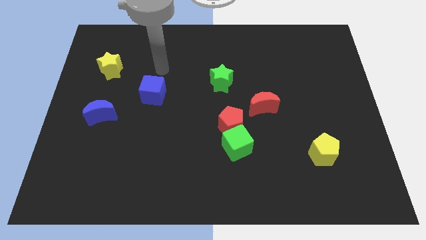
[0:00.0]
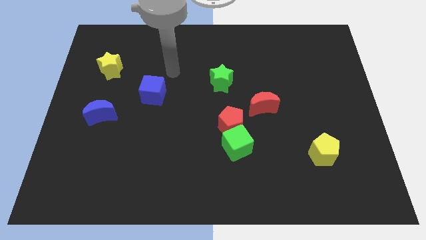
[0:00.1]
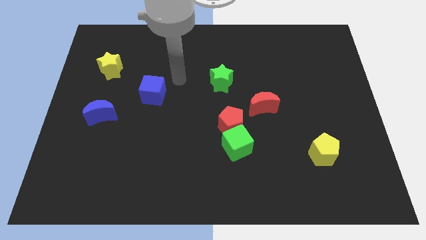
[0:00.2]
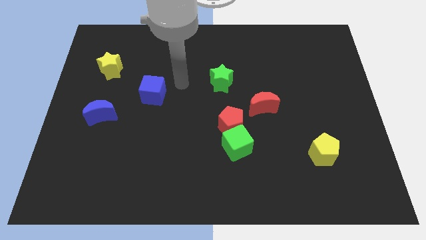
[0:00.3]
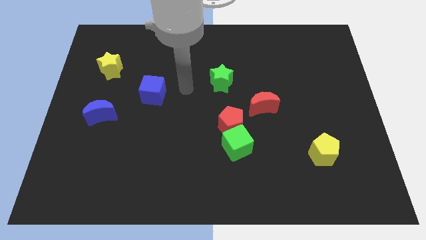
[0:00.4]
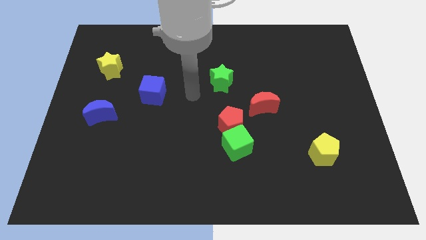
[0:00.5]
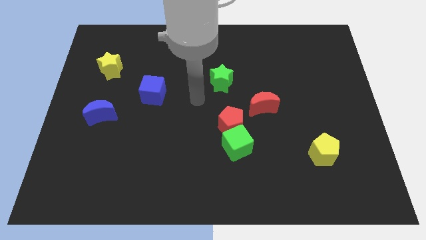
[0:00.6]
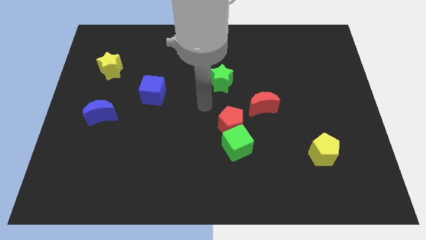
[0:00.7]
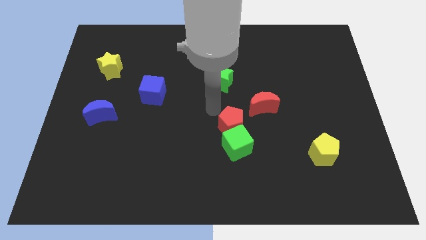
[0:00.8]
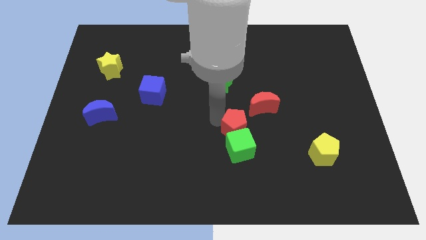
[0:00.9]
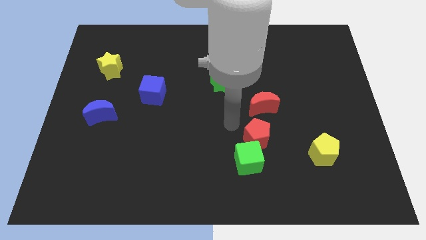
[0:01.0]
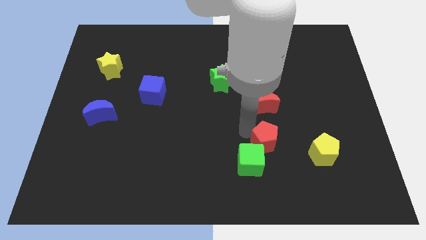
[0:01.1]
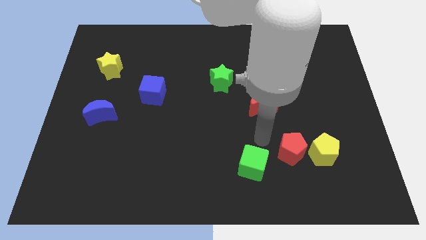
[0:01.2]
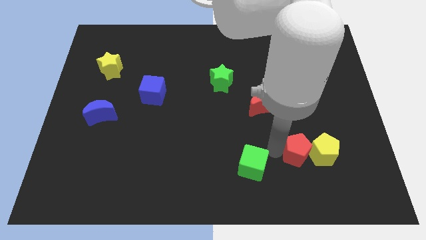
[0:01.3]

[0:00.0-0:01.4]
move the green cube away from the red pentagon

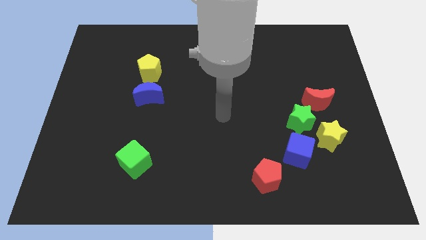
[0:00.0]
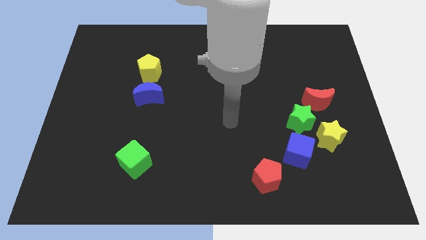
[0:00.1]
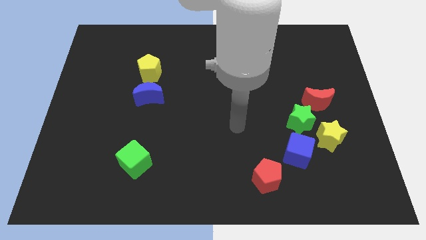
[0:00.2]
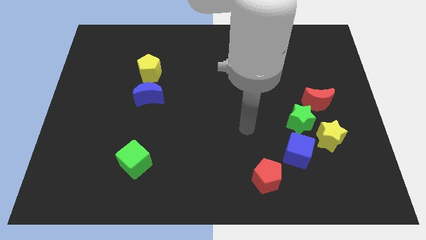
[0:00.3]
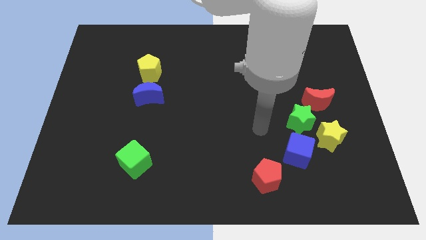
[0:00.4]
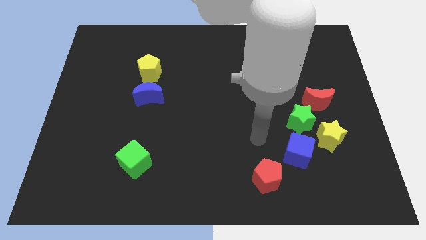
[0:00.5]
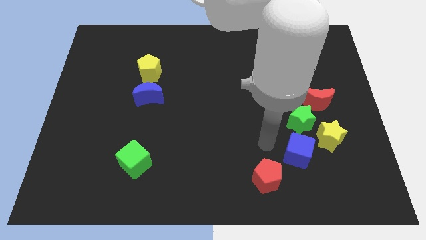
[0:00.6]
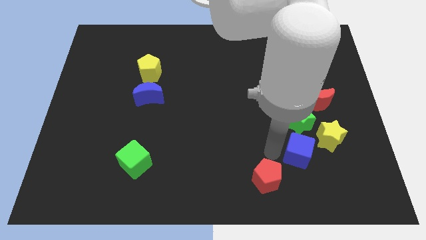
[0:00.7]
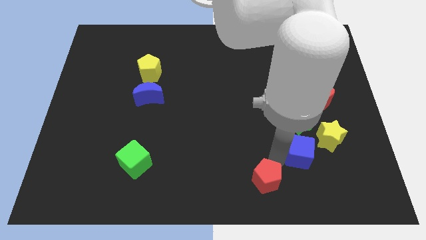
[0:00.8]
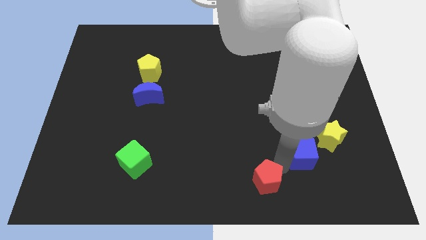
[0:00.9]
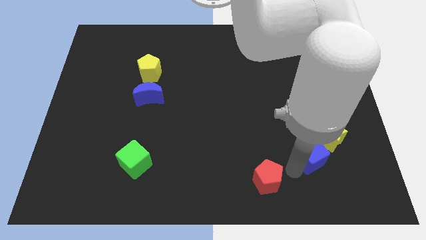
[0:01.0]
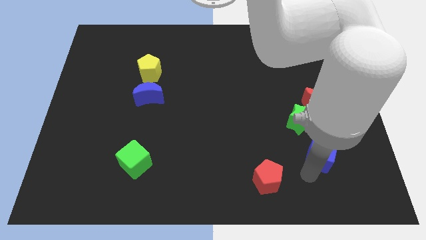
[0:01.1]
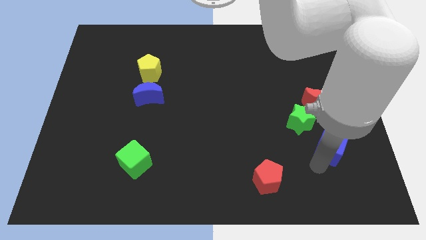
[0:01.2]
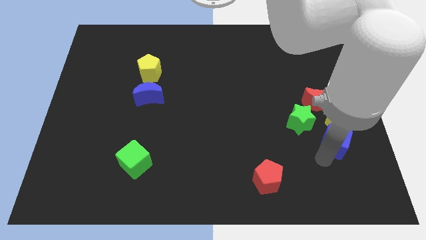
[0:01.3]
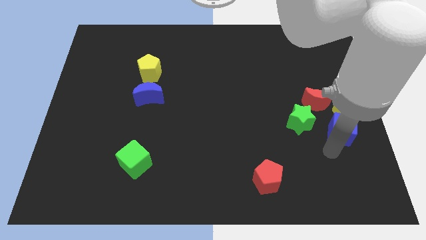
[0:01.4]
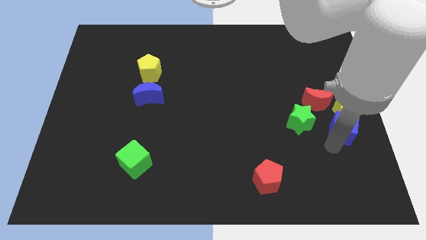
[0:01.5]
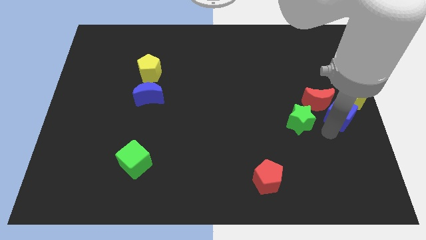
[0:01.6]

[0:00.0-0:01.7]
move the green star away from the yellow star, red moon, and blue cube

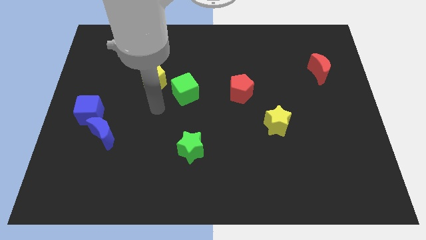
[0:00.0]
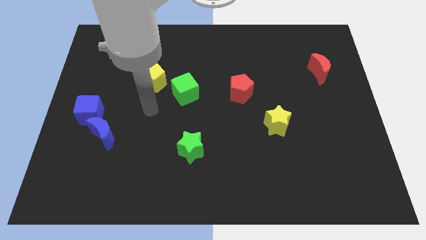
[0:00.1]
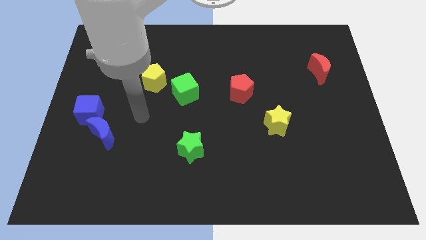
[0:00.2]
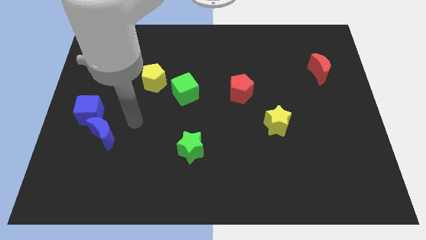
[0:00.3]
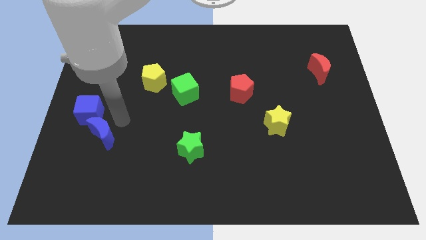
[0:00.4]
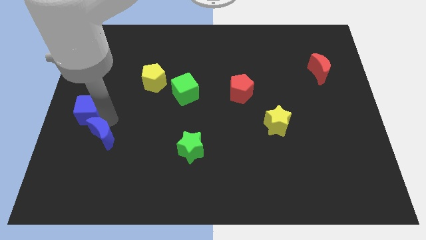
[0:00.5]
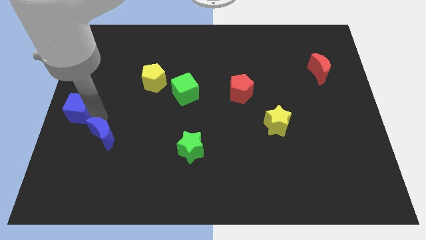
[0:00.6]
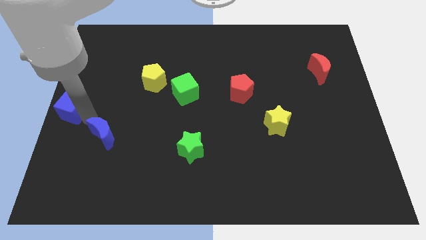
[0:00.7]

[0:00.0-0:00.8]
separate the blue moon from the blue cube

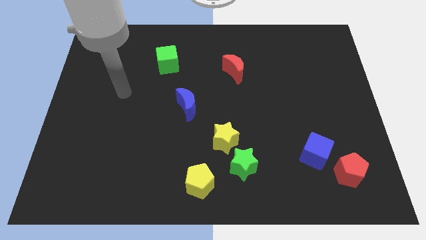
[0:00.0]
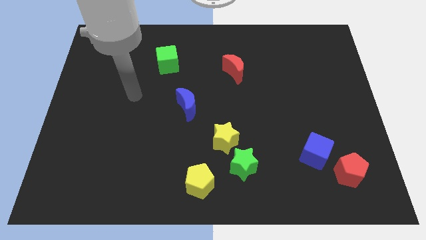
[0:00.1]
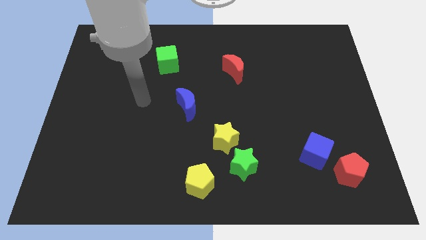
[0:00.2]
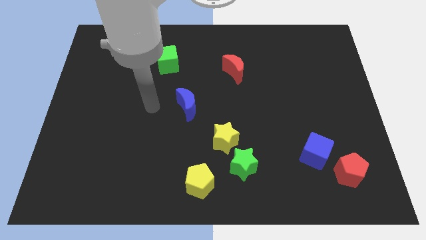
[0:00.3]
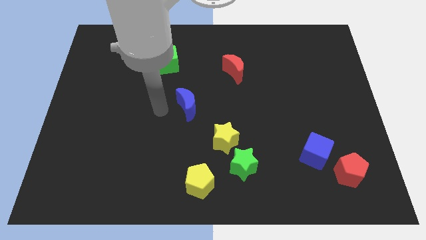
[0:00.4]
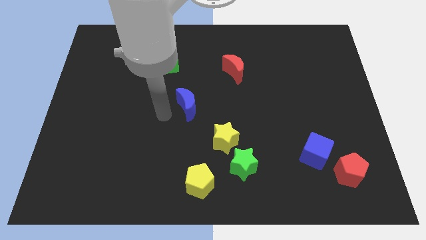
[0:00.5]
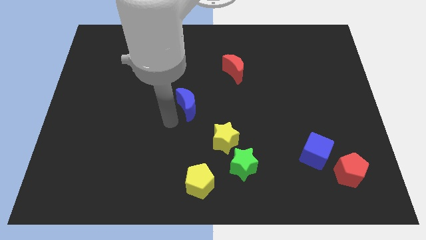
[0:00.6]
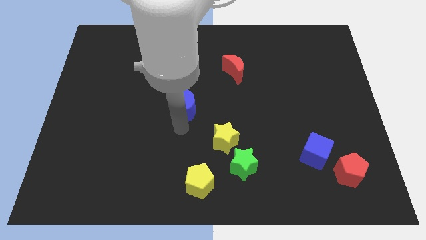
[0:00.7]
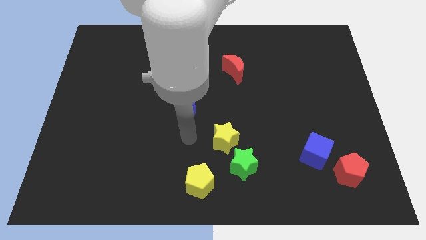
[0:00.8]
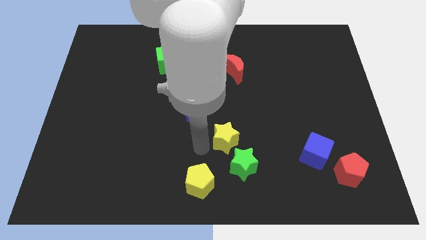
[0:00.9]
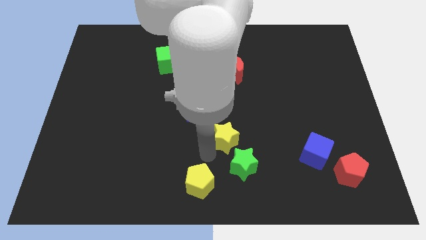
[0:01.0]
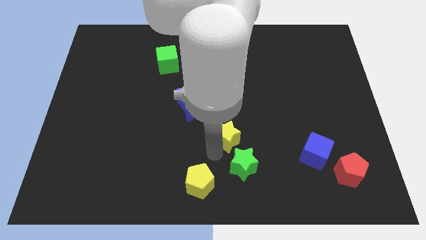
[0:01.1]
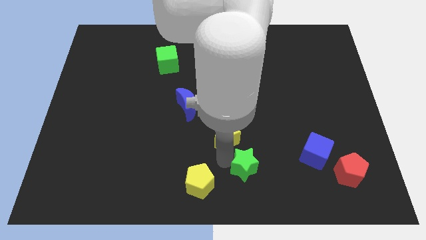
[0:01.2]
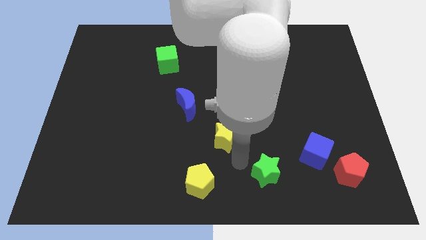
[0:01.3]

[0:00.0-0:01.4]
separate the yellow star from the green star

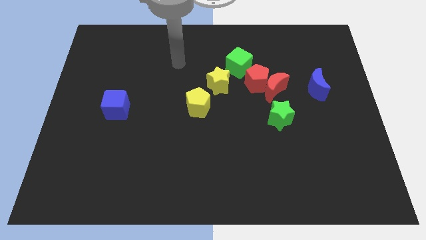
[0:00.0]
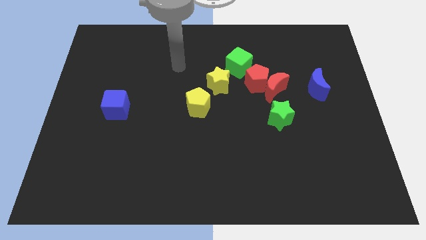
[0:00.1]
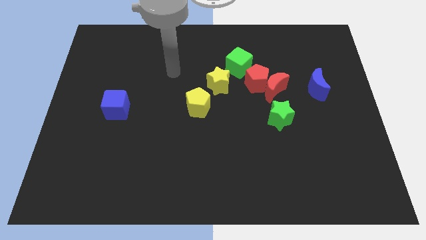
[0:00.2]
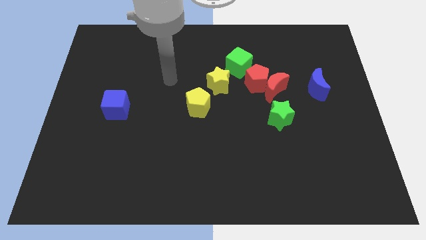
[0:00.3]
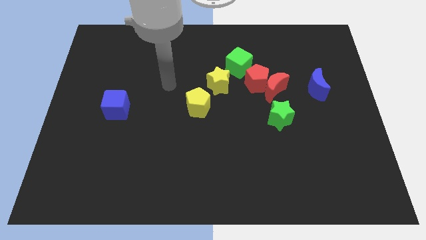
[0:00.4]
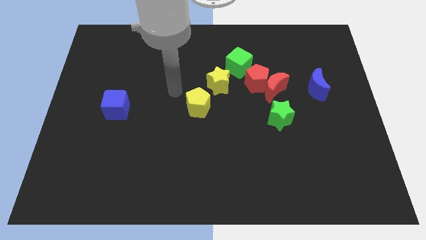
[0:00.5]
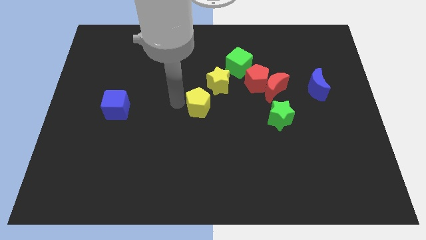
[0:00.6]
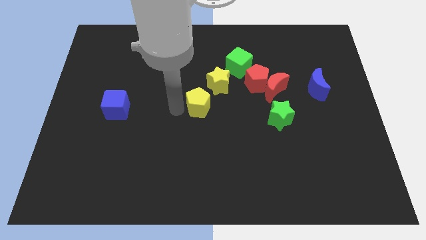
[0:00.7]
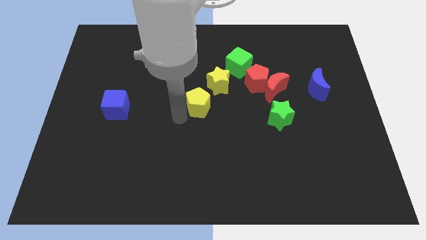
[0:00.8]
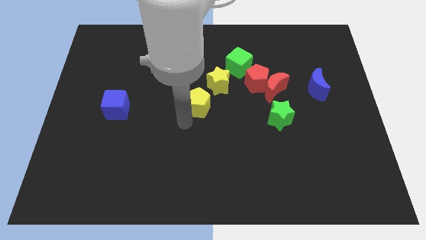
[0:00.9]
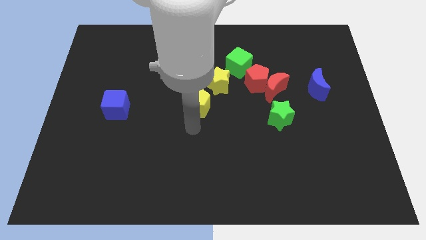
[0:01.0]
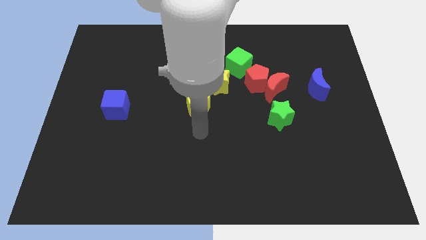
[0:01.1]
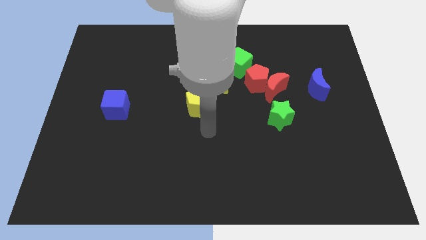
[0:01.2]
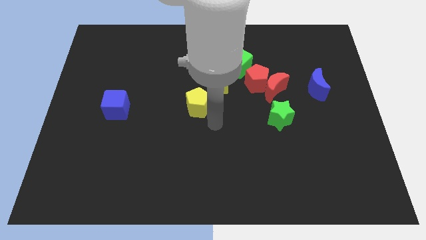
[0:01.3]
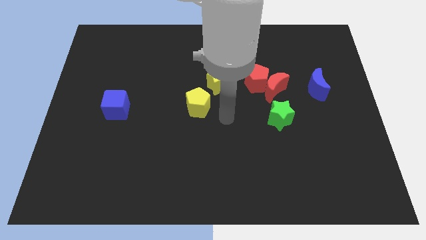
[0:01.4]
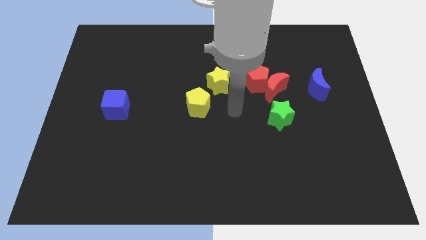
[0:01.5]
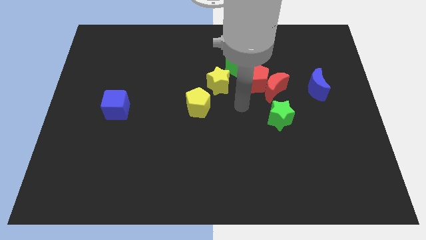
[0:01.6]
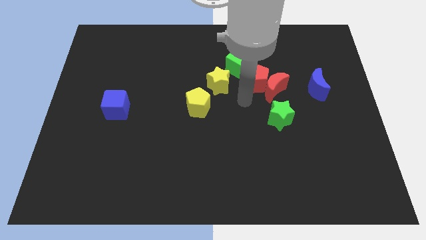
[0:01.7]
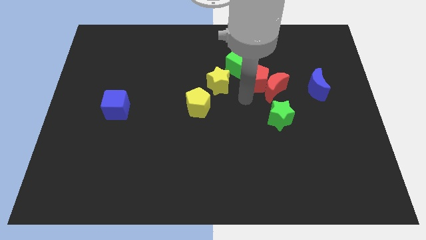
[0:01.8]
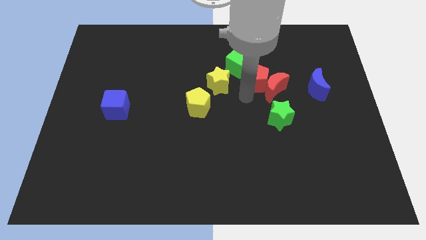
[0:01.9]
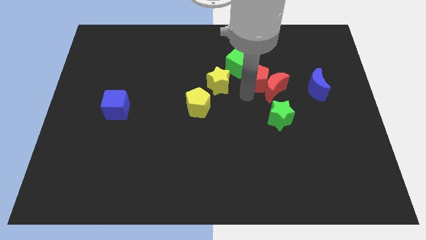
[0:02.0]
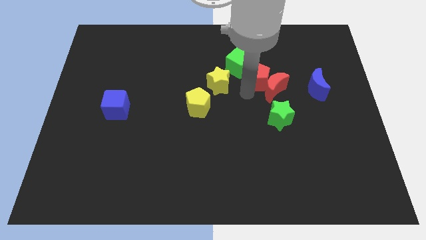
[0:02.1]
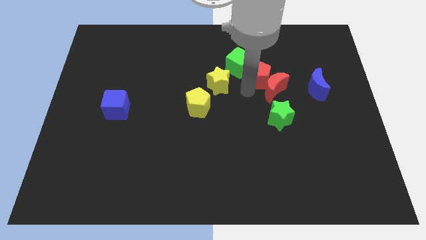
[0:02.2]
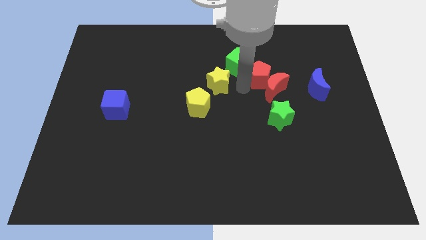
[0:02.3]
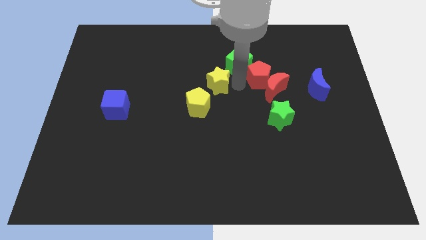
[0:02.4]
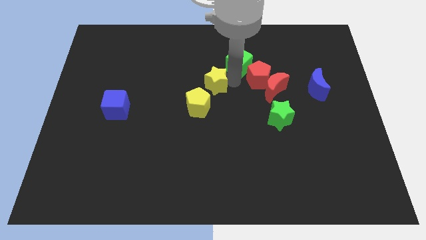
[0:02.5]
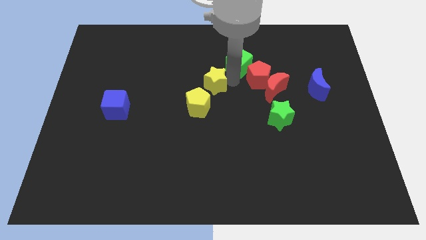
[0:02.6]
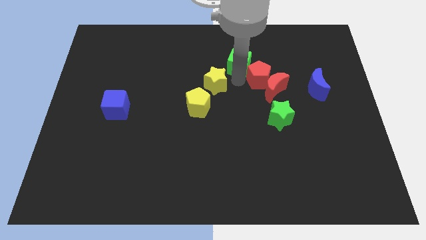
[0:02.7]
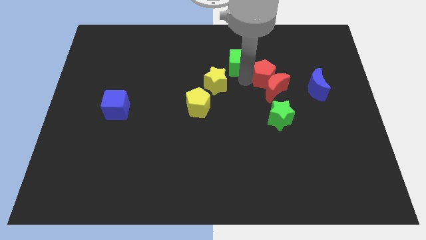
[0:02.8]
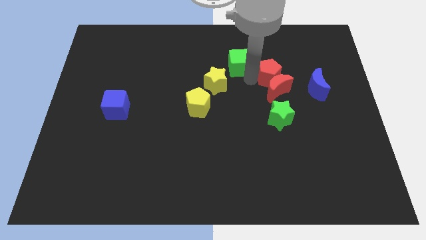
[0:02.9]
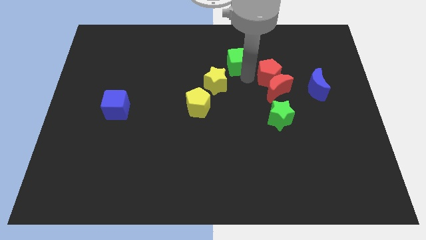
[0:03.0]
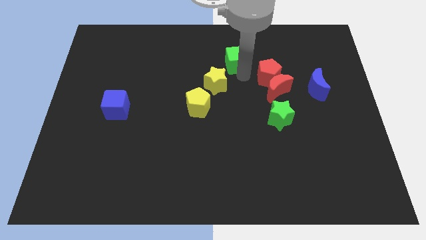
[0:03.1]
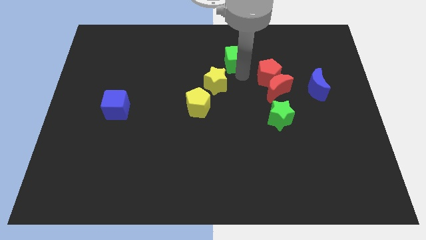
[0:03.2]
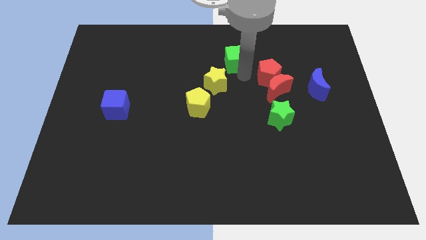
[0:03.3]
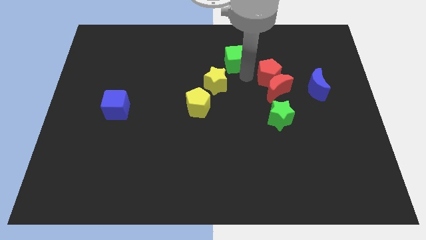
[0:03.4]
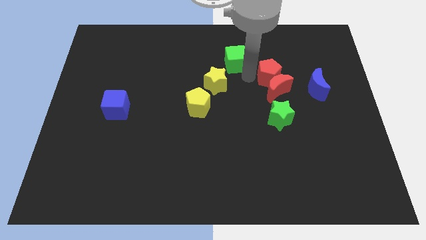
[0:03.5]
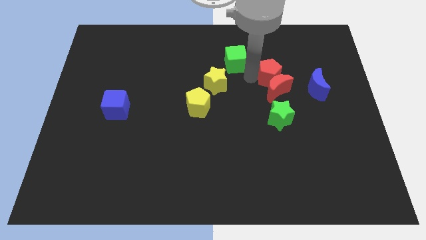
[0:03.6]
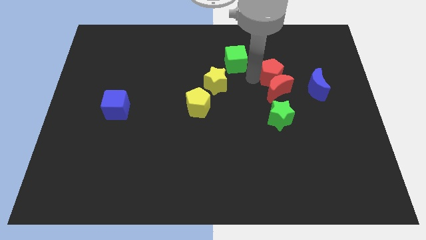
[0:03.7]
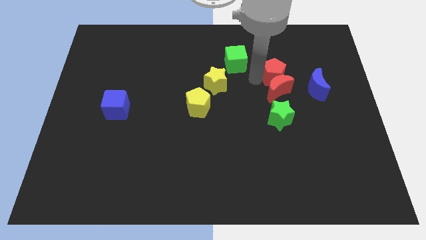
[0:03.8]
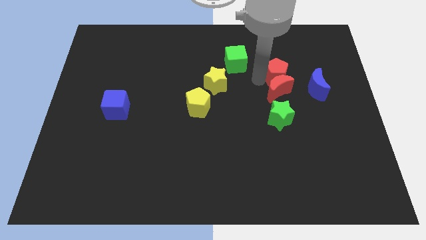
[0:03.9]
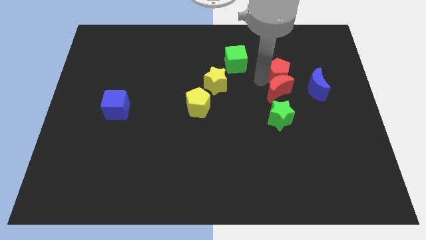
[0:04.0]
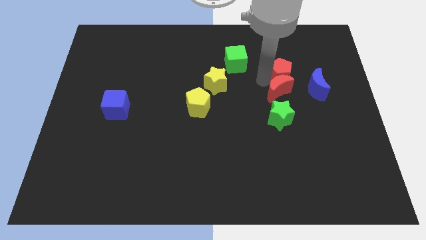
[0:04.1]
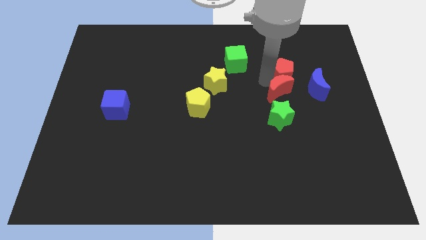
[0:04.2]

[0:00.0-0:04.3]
pull the red pentagon apart from the clump
